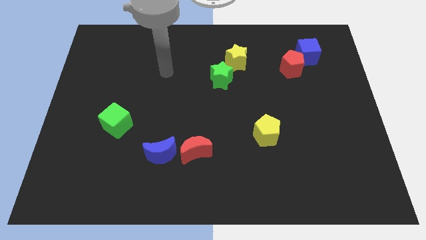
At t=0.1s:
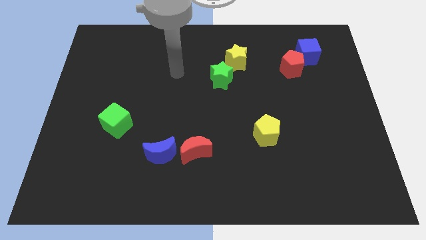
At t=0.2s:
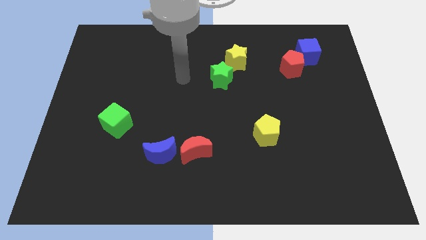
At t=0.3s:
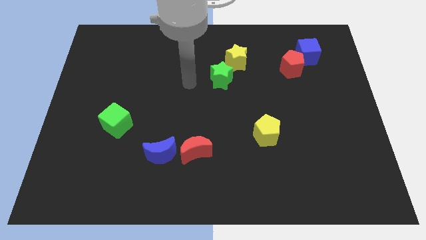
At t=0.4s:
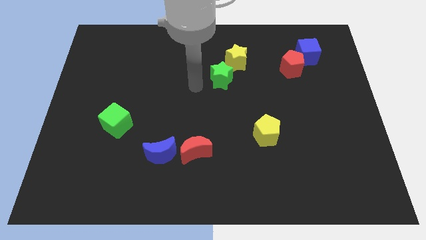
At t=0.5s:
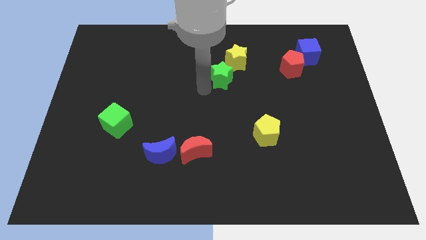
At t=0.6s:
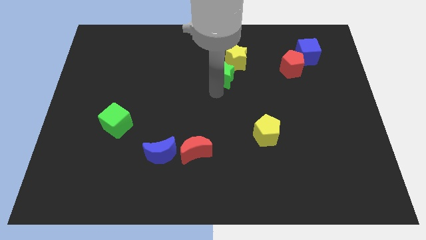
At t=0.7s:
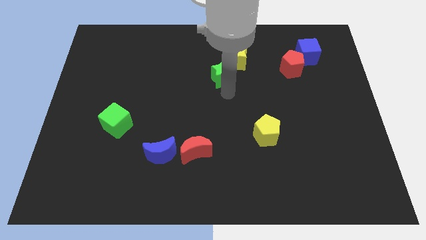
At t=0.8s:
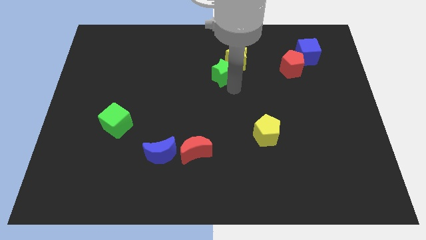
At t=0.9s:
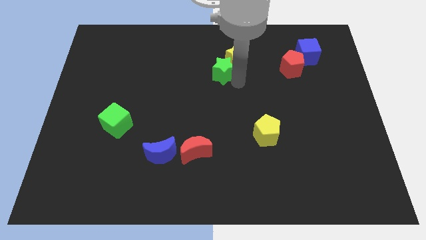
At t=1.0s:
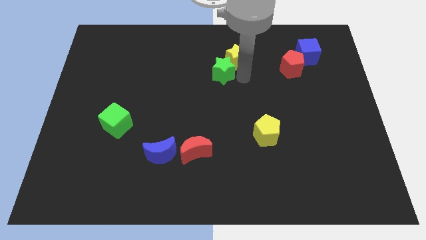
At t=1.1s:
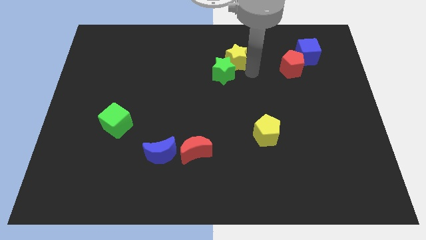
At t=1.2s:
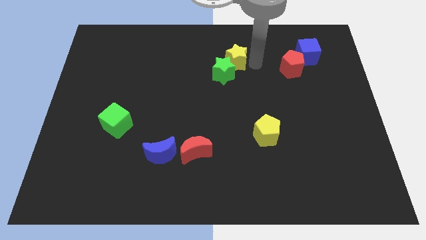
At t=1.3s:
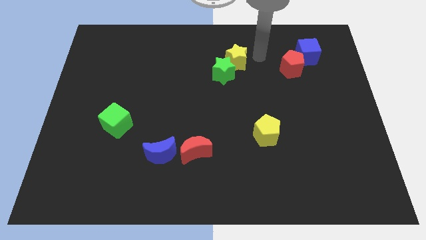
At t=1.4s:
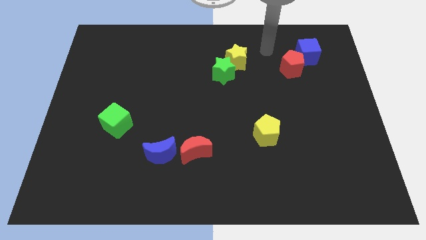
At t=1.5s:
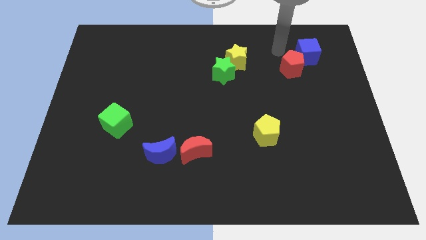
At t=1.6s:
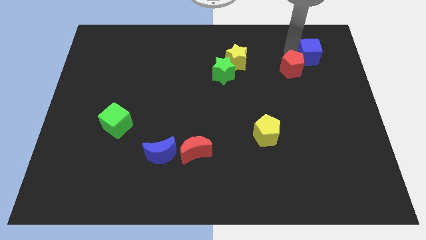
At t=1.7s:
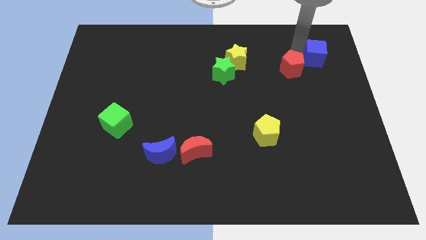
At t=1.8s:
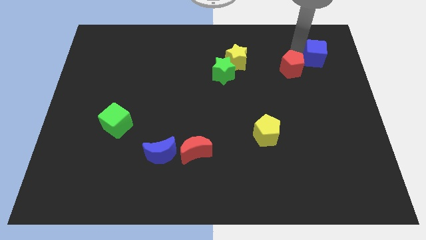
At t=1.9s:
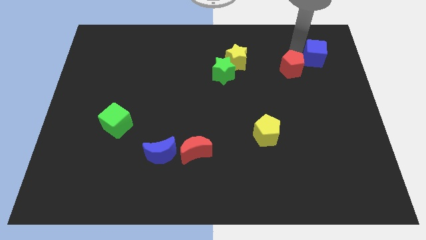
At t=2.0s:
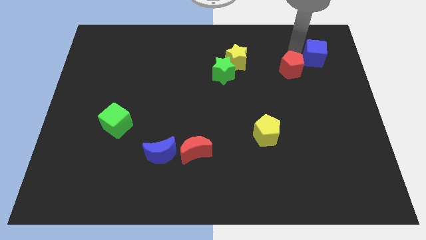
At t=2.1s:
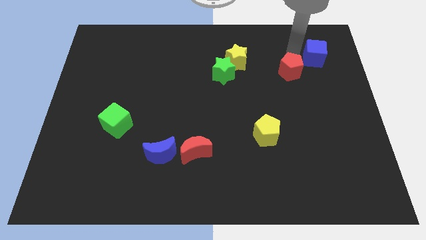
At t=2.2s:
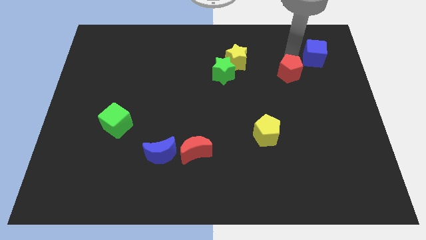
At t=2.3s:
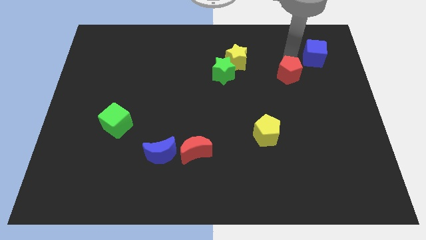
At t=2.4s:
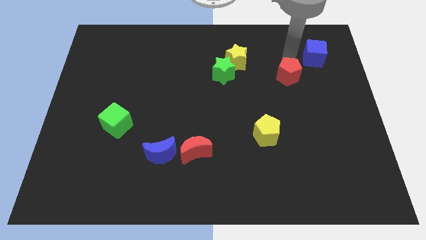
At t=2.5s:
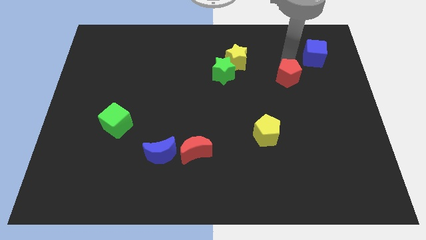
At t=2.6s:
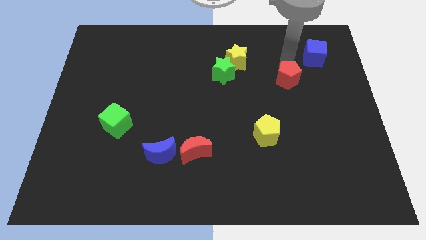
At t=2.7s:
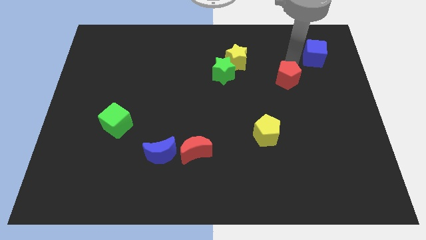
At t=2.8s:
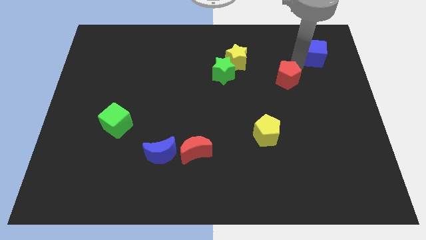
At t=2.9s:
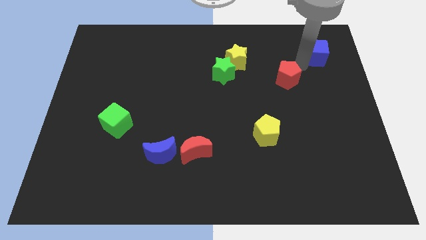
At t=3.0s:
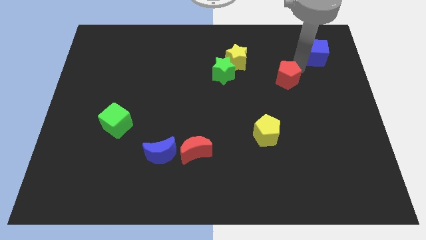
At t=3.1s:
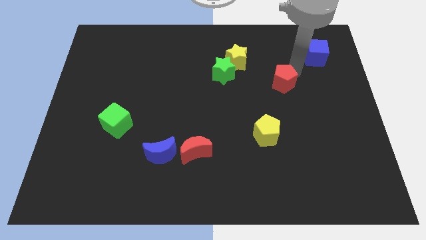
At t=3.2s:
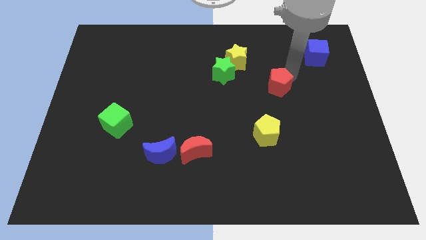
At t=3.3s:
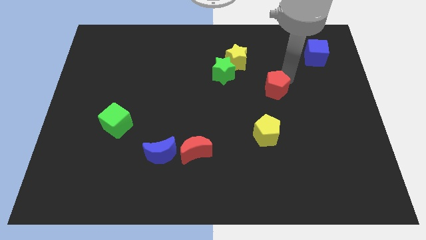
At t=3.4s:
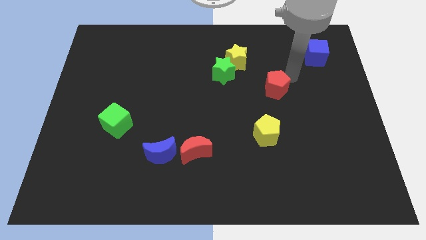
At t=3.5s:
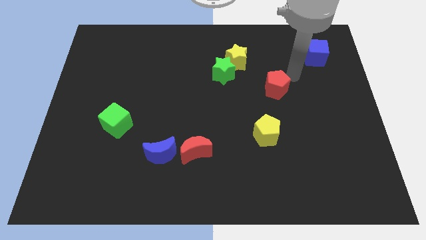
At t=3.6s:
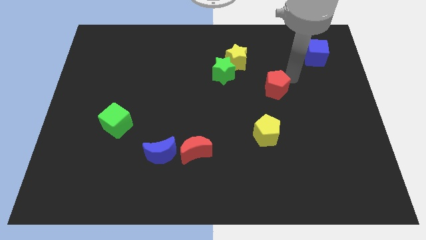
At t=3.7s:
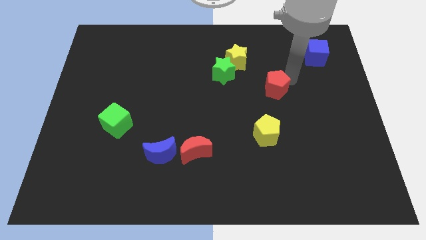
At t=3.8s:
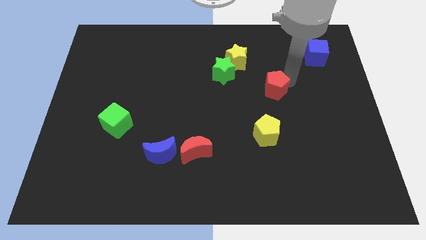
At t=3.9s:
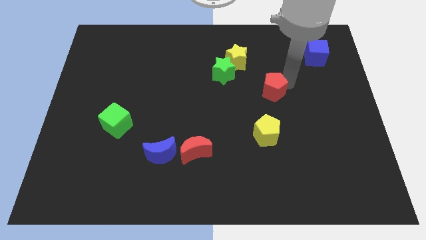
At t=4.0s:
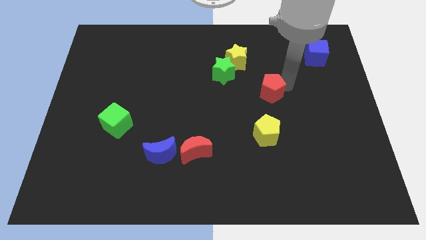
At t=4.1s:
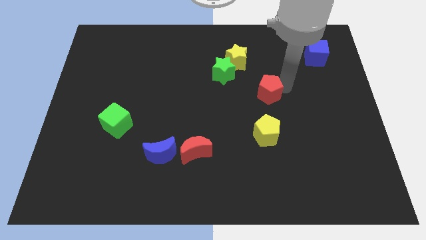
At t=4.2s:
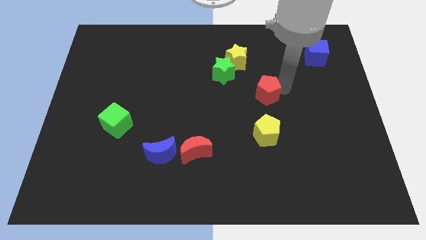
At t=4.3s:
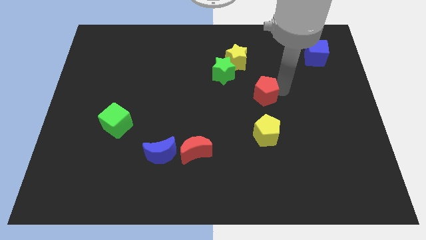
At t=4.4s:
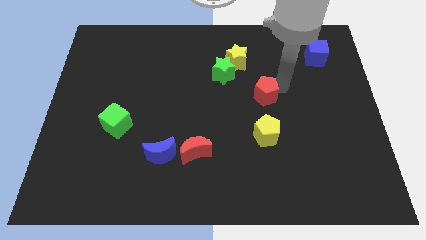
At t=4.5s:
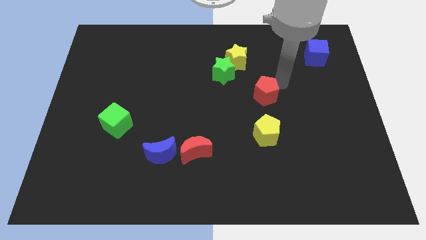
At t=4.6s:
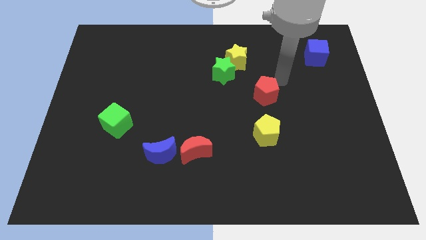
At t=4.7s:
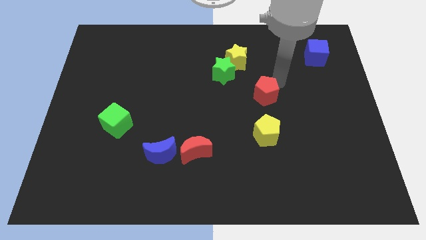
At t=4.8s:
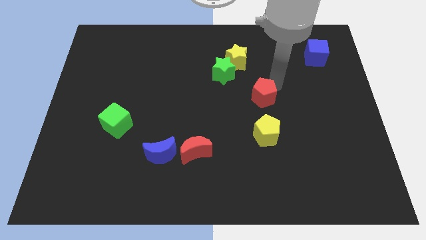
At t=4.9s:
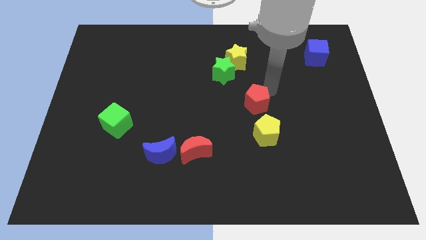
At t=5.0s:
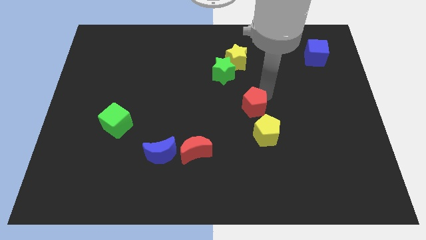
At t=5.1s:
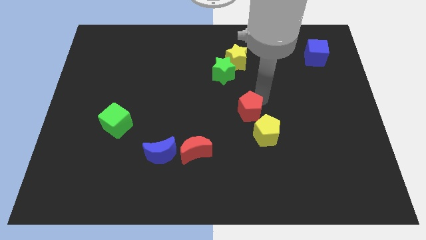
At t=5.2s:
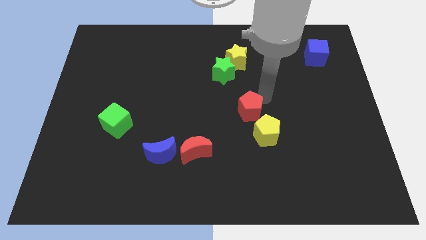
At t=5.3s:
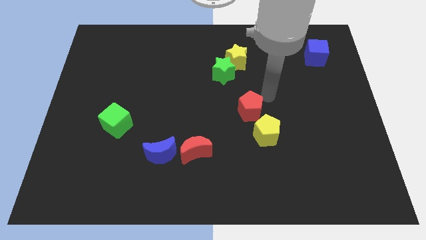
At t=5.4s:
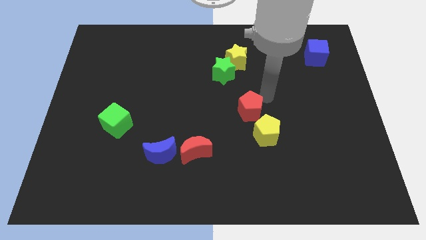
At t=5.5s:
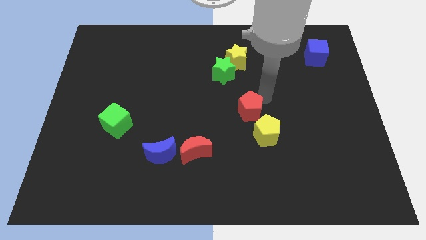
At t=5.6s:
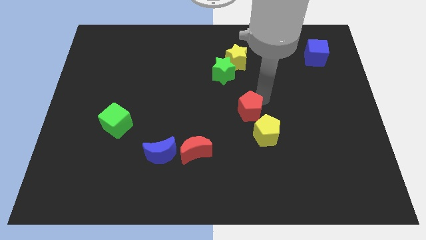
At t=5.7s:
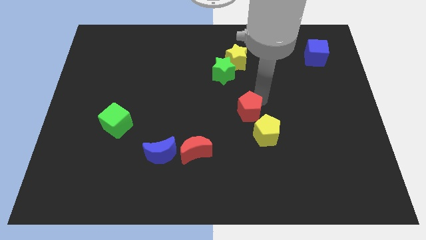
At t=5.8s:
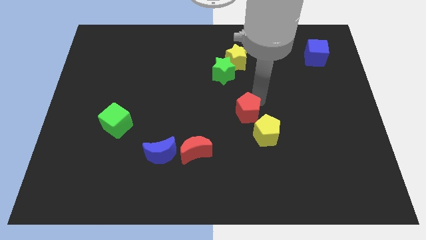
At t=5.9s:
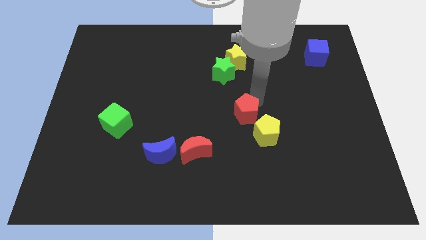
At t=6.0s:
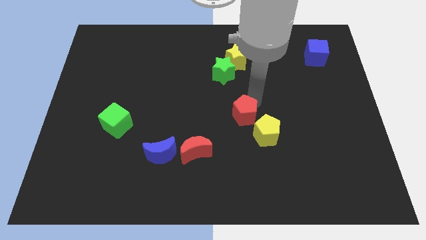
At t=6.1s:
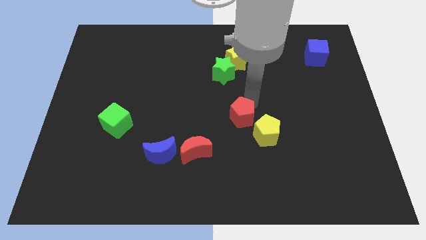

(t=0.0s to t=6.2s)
move the red pentagon to the left of the yellow pentagon
